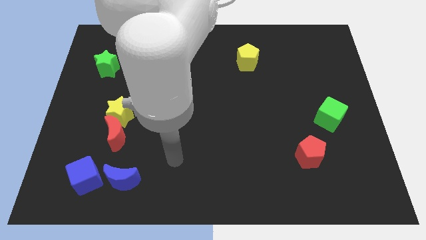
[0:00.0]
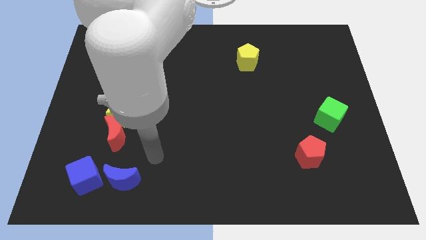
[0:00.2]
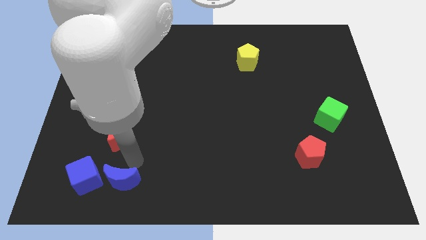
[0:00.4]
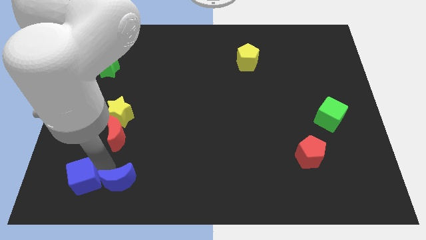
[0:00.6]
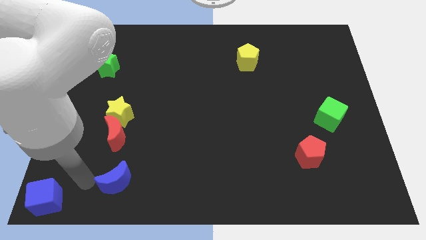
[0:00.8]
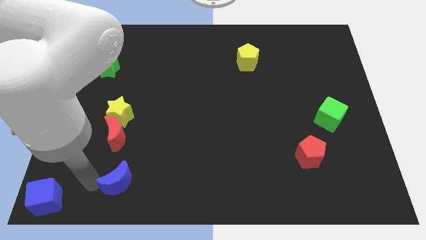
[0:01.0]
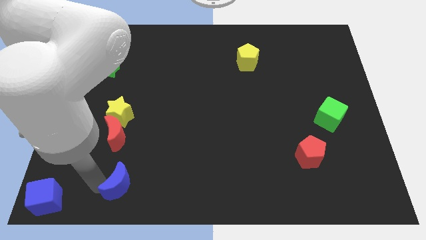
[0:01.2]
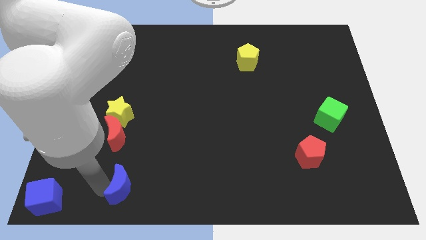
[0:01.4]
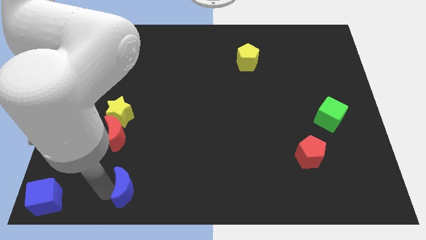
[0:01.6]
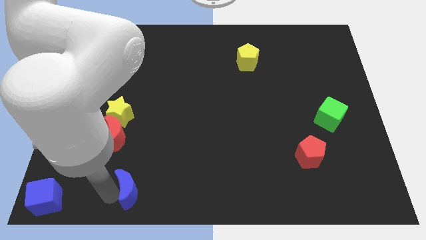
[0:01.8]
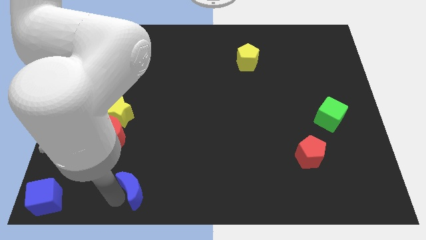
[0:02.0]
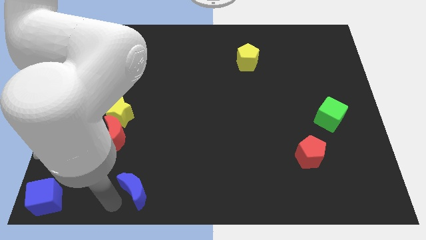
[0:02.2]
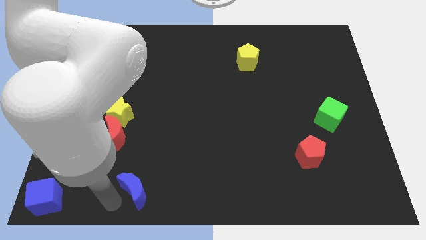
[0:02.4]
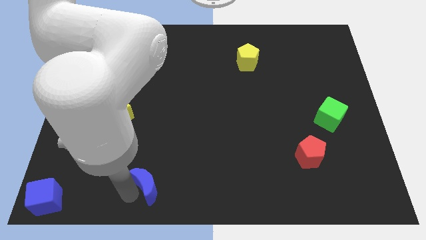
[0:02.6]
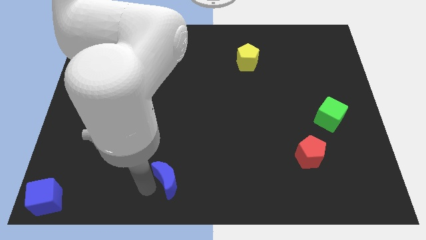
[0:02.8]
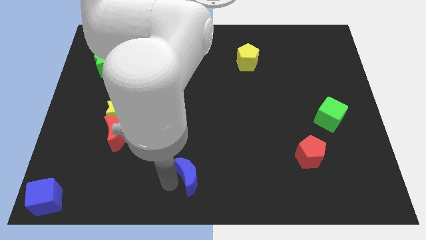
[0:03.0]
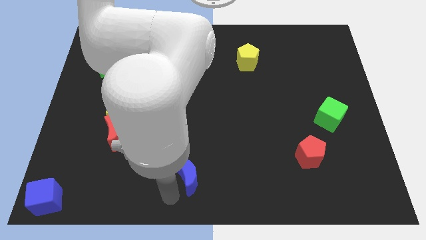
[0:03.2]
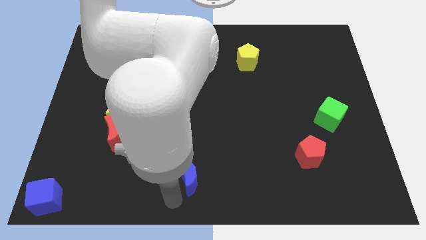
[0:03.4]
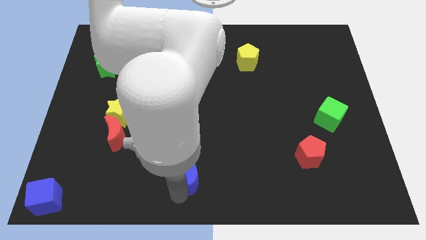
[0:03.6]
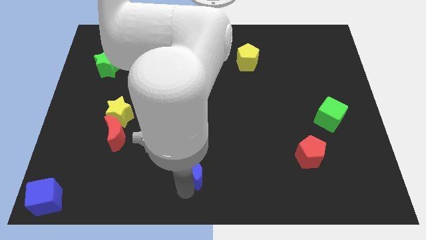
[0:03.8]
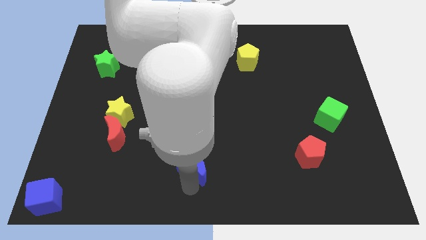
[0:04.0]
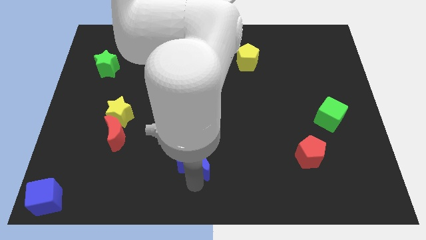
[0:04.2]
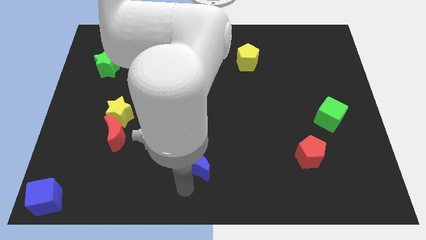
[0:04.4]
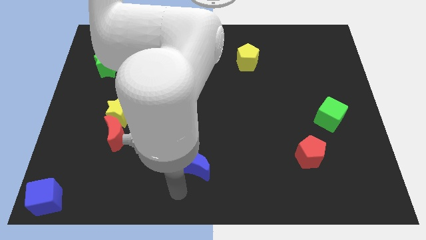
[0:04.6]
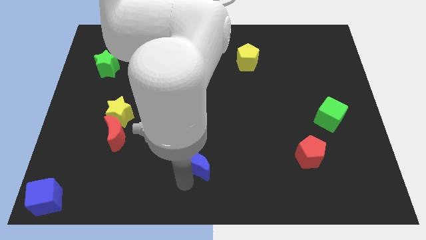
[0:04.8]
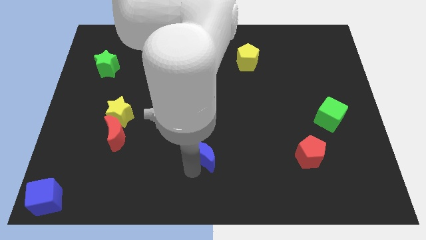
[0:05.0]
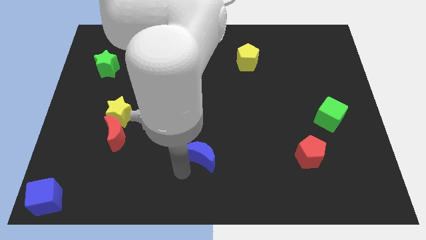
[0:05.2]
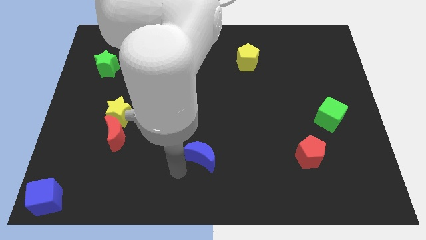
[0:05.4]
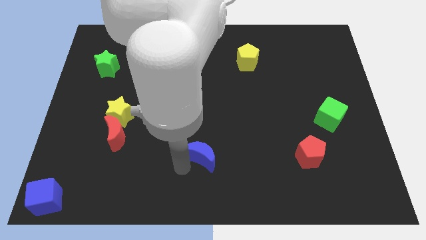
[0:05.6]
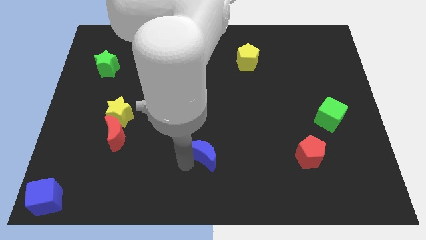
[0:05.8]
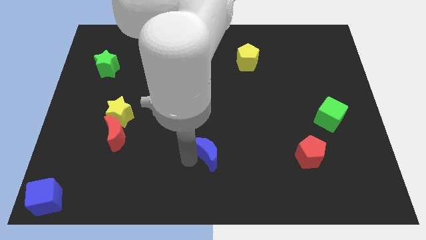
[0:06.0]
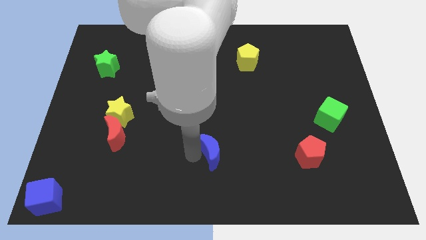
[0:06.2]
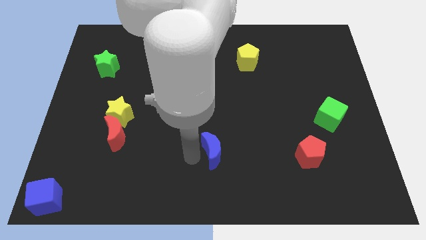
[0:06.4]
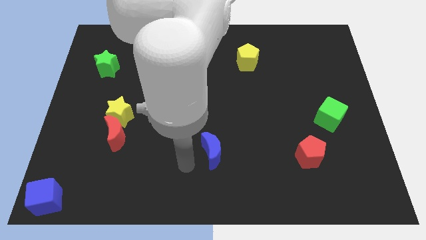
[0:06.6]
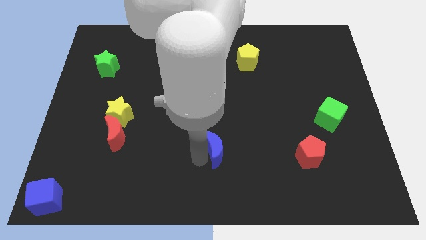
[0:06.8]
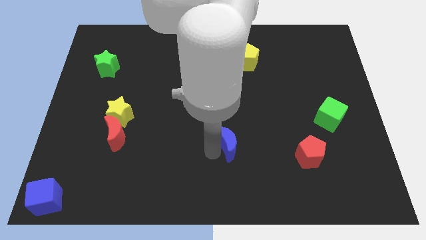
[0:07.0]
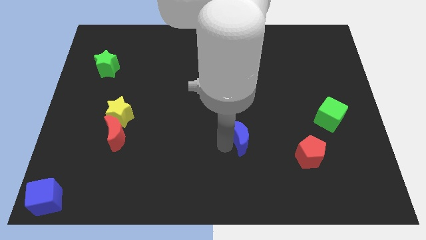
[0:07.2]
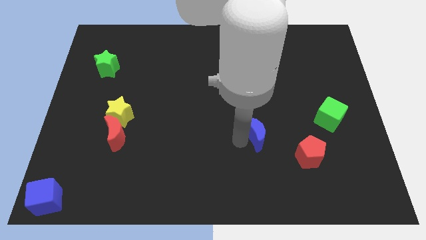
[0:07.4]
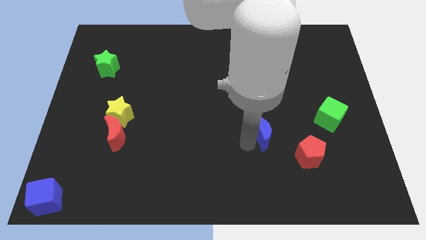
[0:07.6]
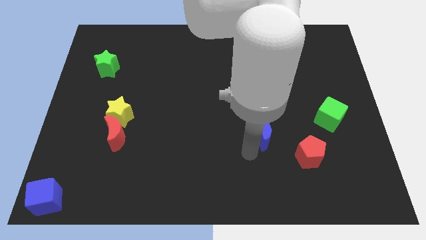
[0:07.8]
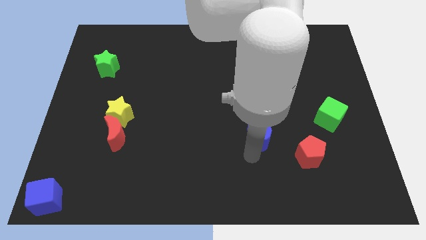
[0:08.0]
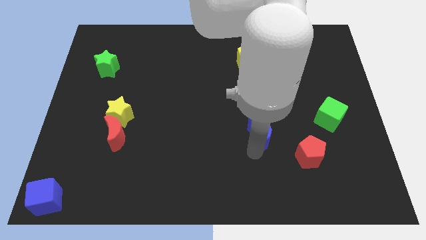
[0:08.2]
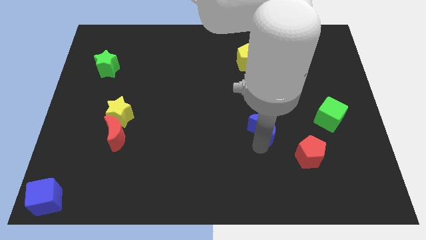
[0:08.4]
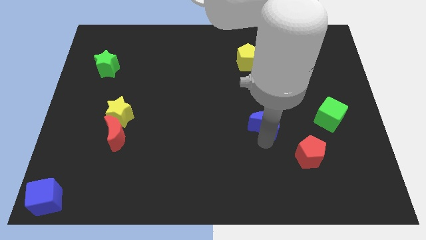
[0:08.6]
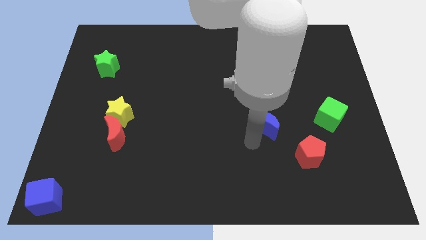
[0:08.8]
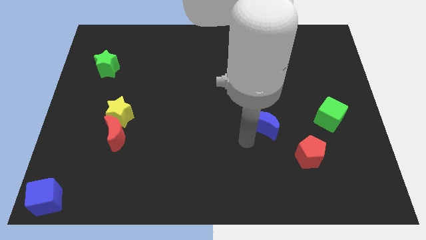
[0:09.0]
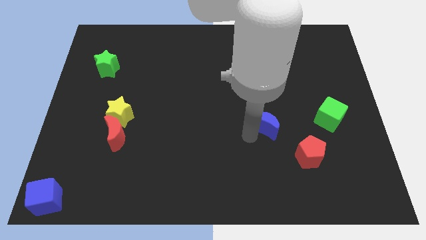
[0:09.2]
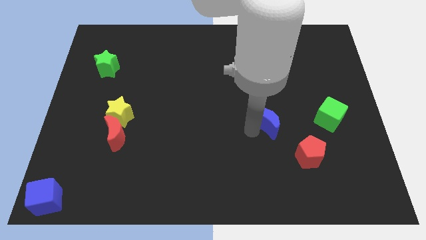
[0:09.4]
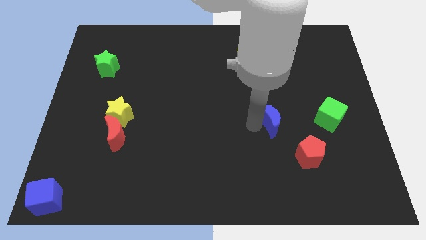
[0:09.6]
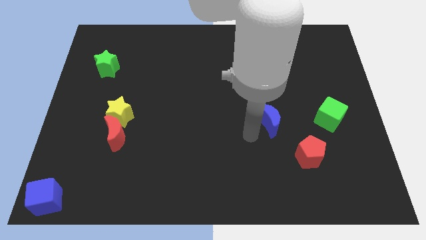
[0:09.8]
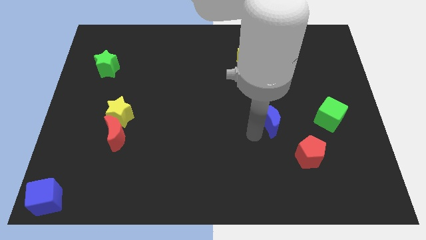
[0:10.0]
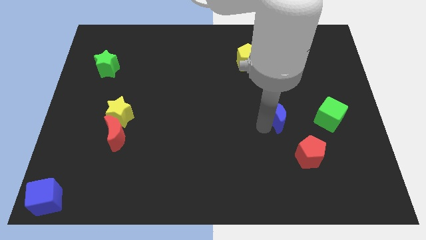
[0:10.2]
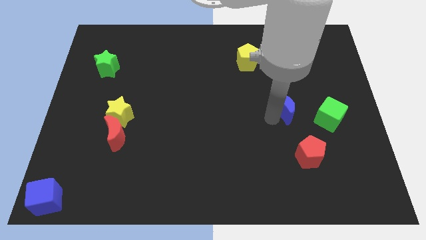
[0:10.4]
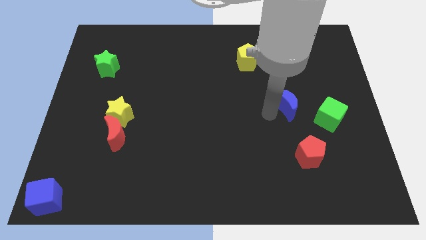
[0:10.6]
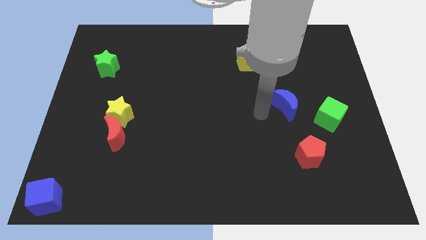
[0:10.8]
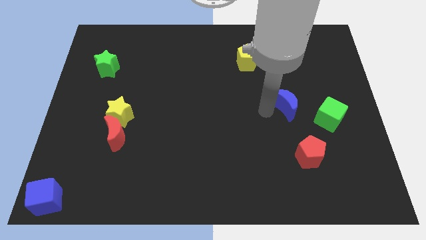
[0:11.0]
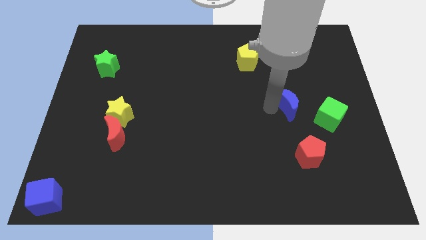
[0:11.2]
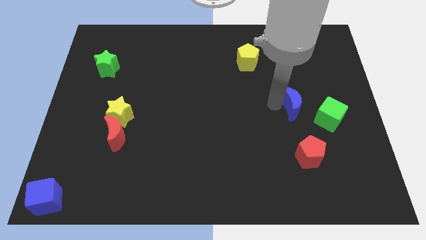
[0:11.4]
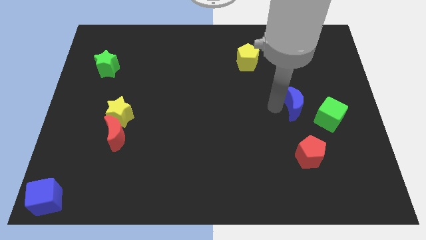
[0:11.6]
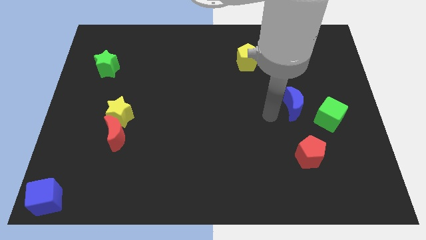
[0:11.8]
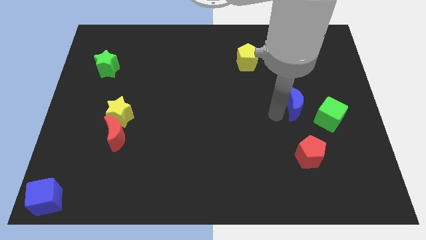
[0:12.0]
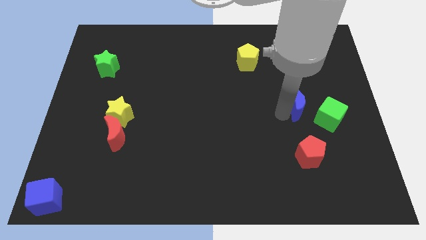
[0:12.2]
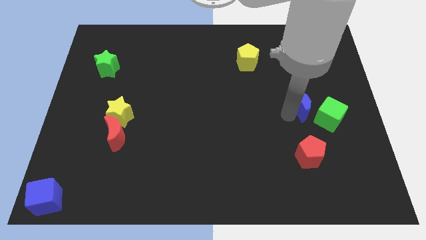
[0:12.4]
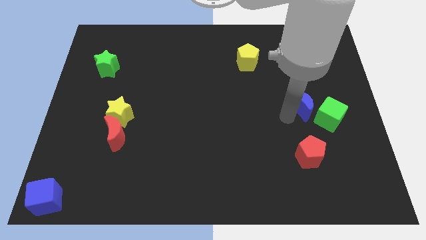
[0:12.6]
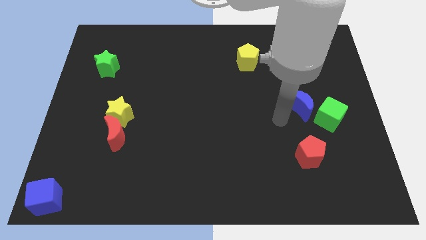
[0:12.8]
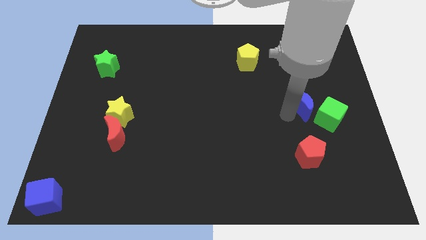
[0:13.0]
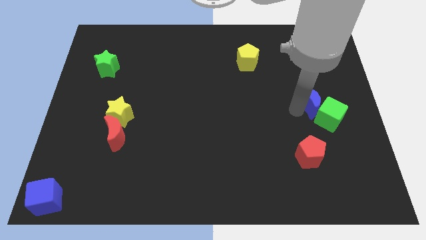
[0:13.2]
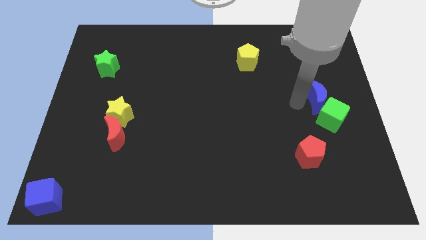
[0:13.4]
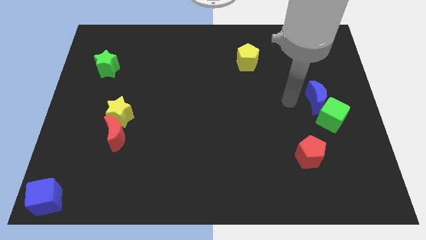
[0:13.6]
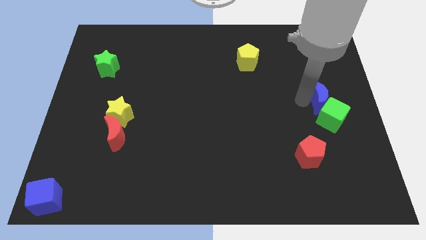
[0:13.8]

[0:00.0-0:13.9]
put the blue moon to the right side of the board
